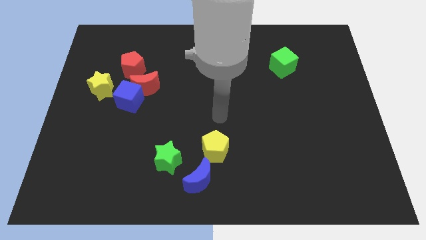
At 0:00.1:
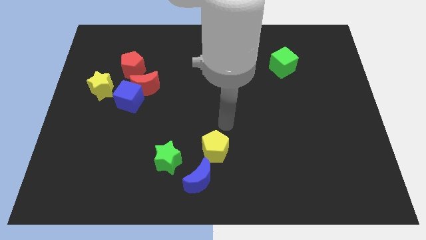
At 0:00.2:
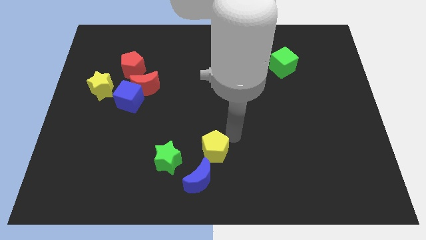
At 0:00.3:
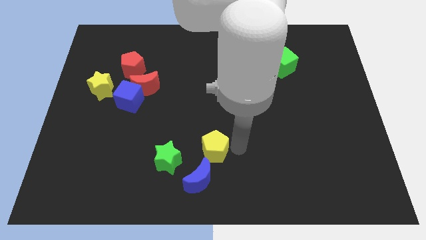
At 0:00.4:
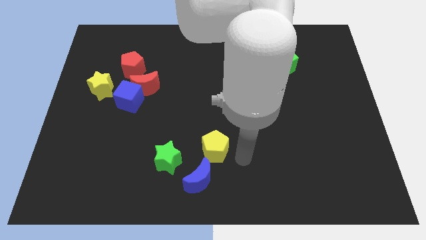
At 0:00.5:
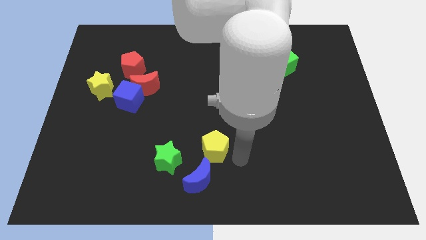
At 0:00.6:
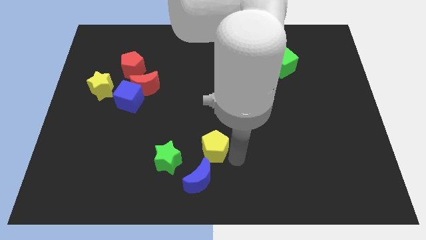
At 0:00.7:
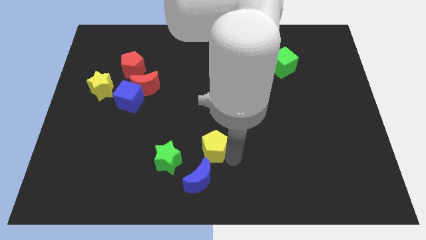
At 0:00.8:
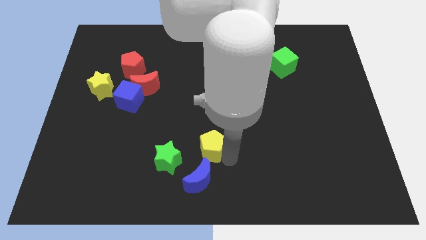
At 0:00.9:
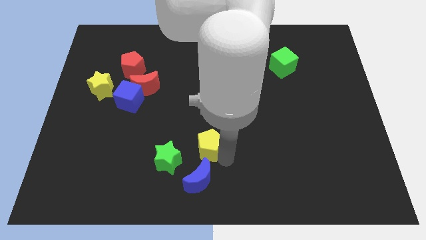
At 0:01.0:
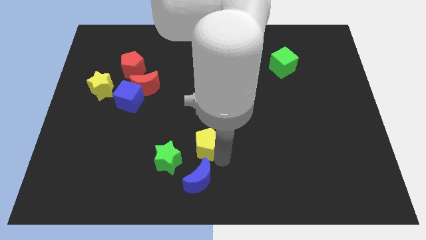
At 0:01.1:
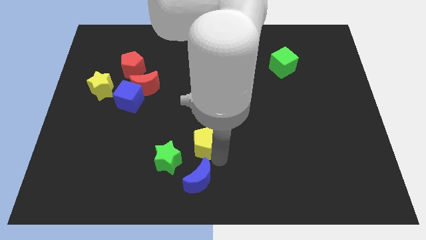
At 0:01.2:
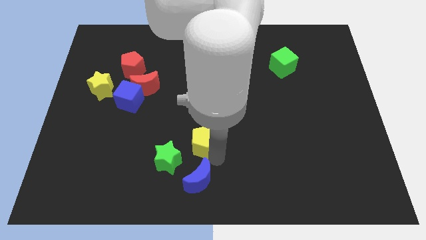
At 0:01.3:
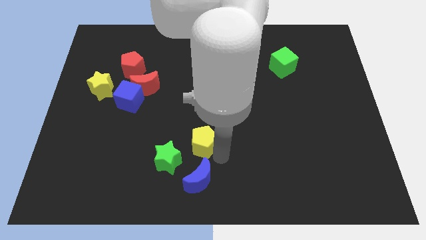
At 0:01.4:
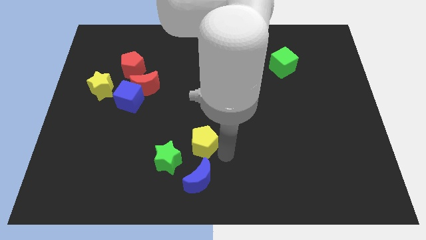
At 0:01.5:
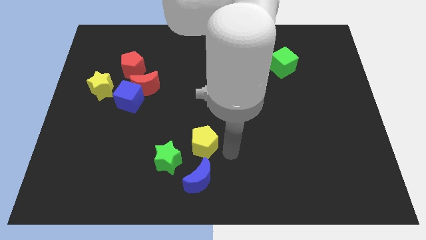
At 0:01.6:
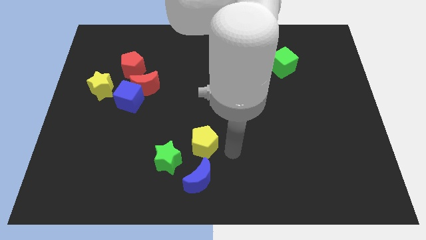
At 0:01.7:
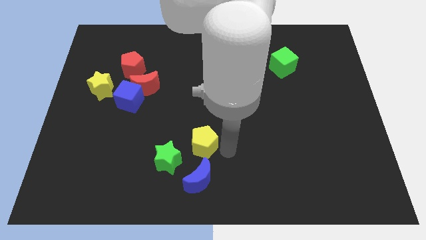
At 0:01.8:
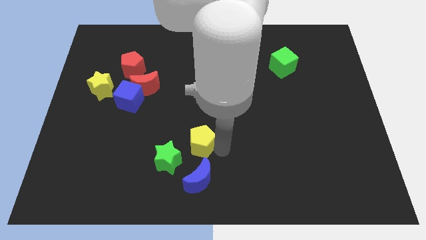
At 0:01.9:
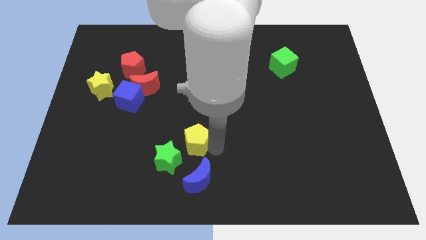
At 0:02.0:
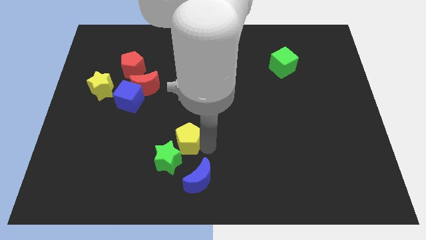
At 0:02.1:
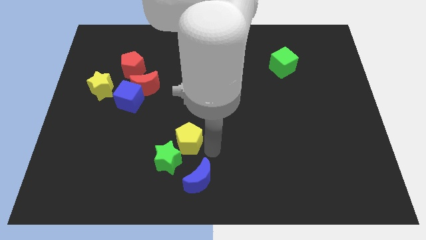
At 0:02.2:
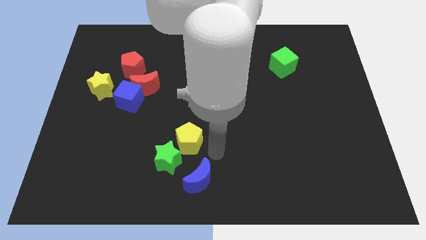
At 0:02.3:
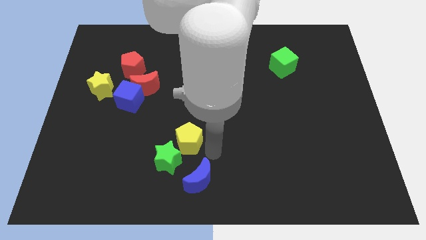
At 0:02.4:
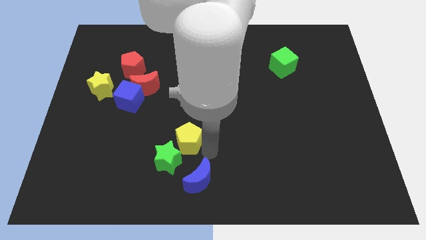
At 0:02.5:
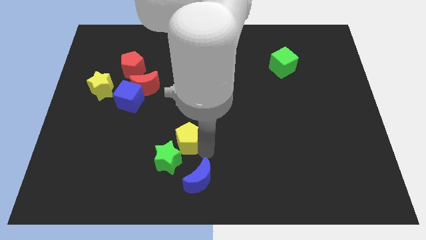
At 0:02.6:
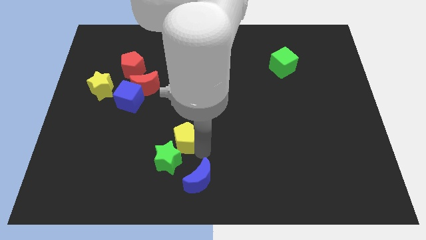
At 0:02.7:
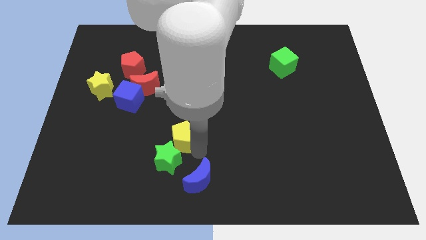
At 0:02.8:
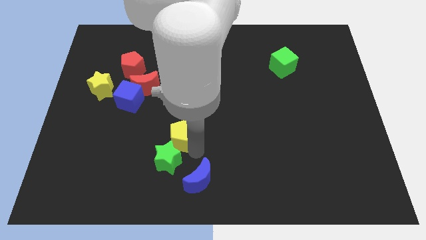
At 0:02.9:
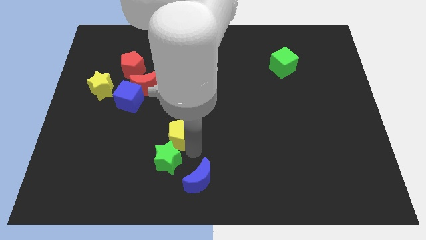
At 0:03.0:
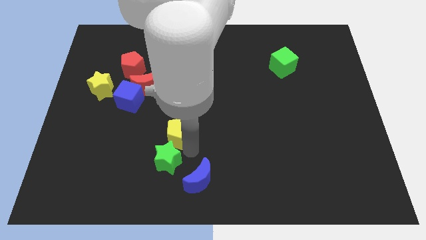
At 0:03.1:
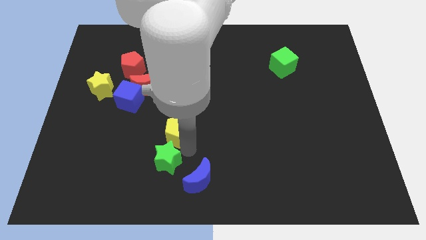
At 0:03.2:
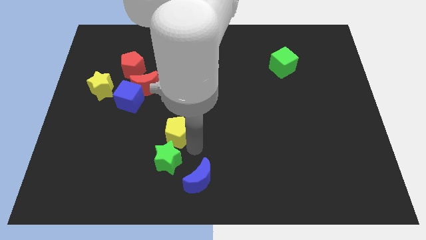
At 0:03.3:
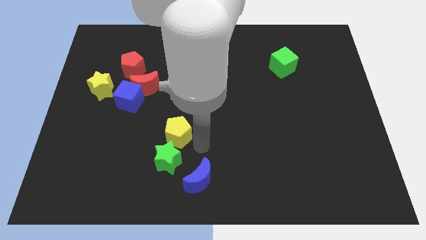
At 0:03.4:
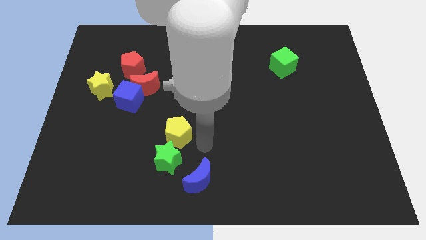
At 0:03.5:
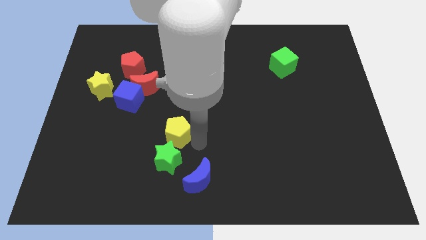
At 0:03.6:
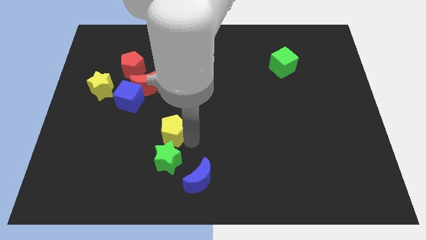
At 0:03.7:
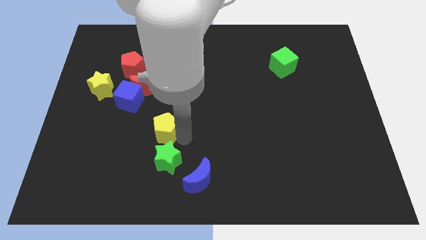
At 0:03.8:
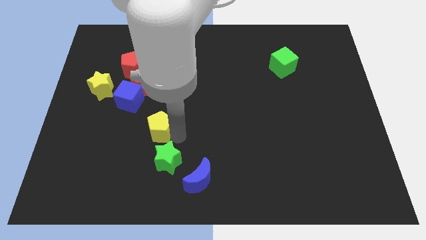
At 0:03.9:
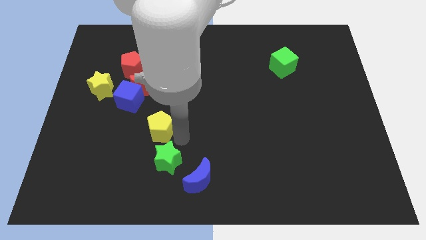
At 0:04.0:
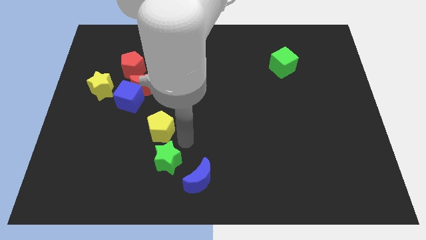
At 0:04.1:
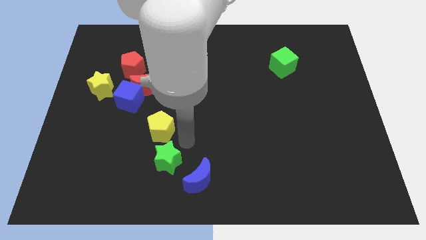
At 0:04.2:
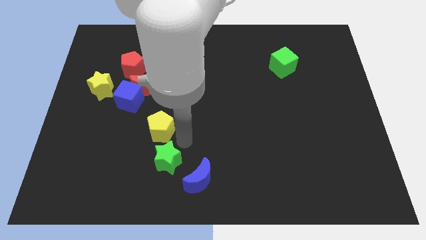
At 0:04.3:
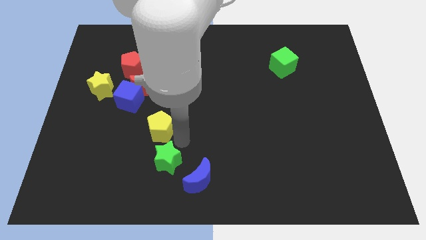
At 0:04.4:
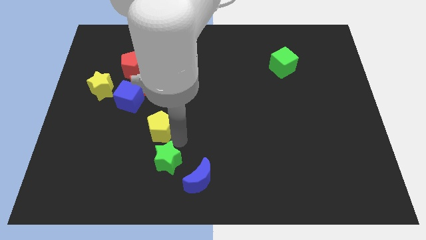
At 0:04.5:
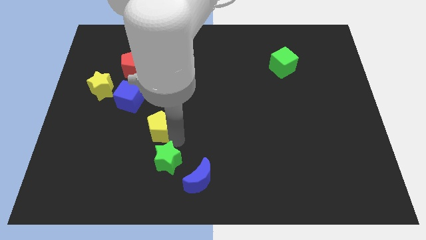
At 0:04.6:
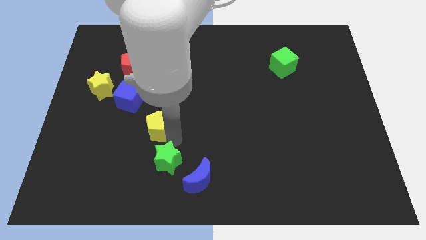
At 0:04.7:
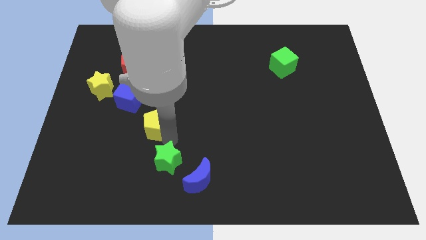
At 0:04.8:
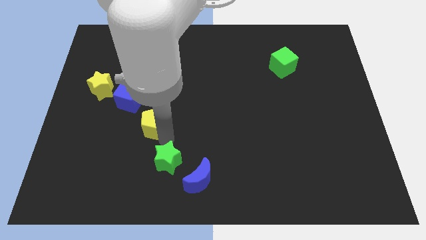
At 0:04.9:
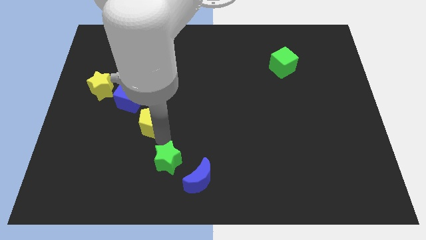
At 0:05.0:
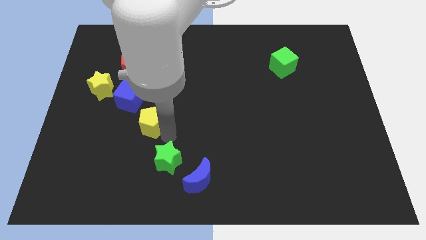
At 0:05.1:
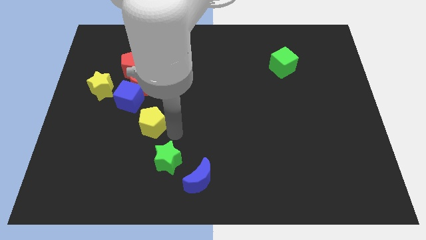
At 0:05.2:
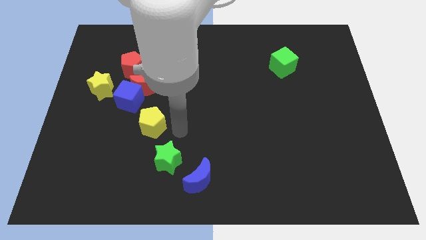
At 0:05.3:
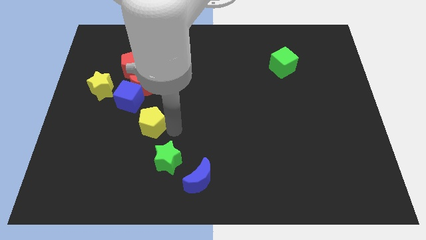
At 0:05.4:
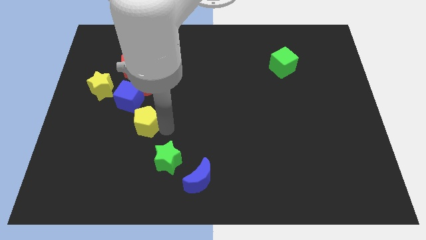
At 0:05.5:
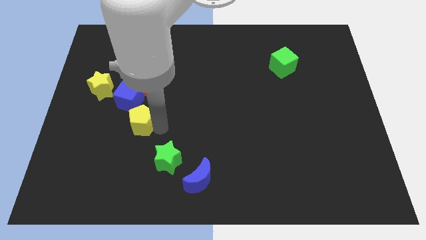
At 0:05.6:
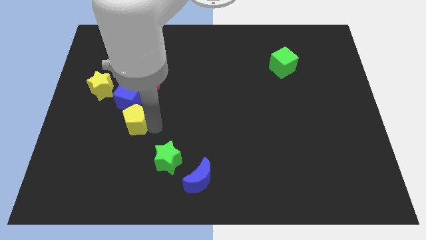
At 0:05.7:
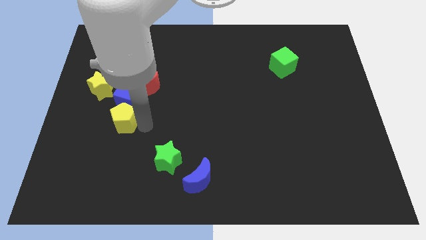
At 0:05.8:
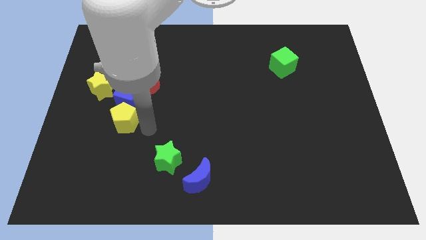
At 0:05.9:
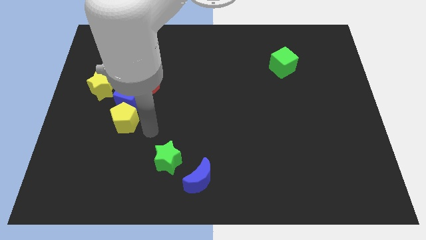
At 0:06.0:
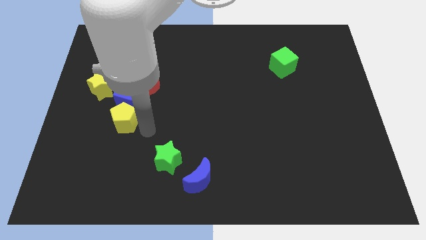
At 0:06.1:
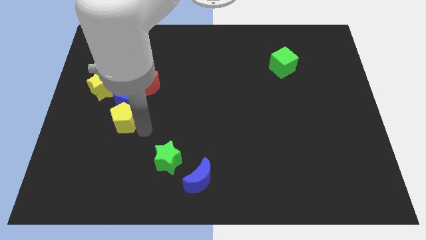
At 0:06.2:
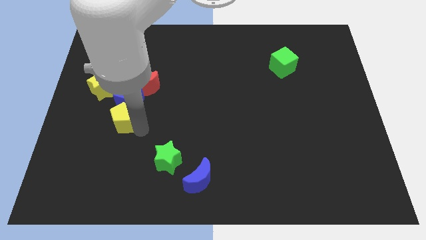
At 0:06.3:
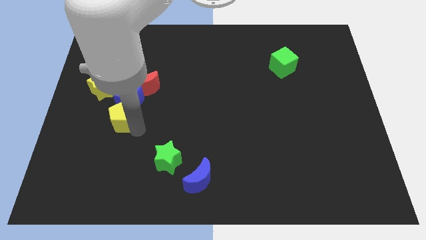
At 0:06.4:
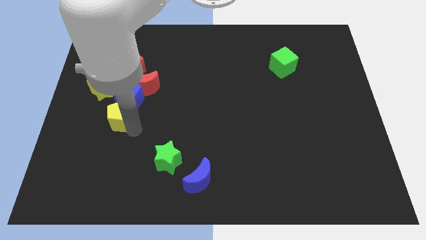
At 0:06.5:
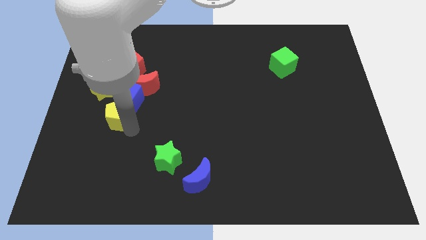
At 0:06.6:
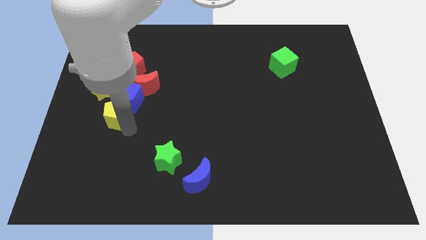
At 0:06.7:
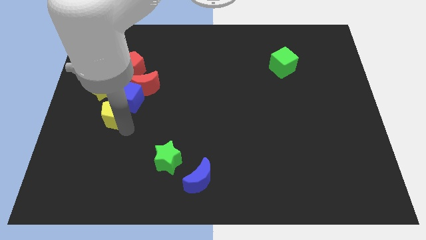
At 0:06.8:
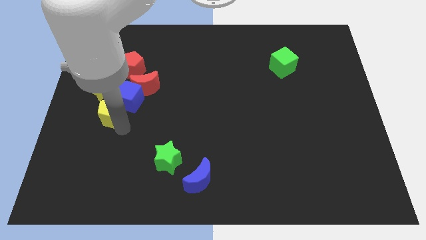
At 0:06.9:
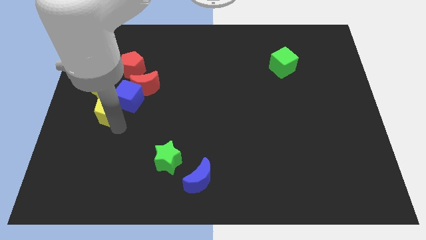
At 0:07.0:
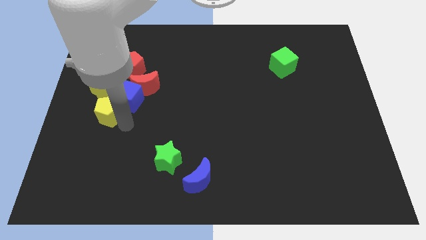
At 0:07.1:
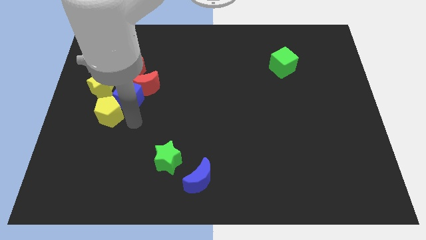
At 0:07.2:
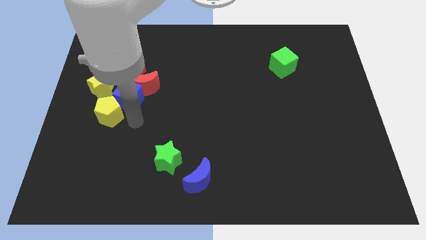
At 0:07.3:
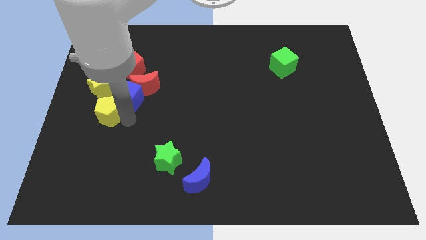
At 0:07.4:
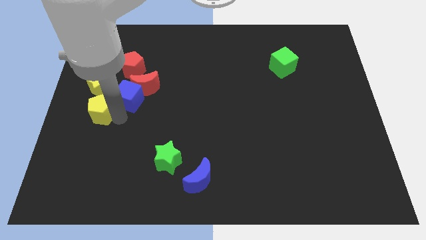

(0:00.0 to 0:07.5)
put the yellow pentagon to the left side of the board
